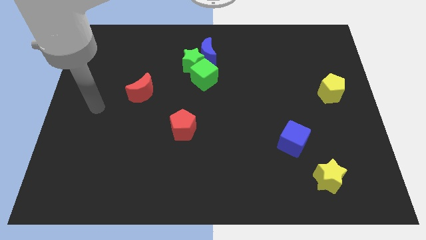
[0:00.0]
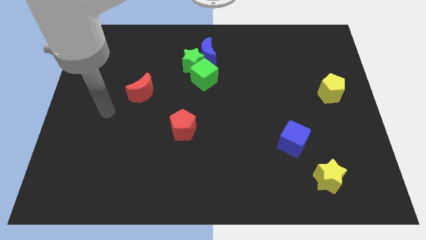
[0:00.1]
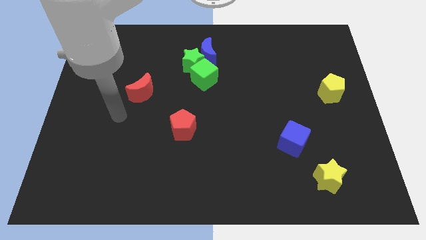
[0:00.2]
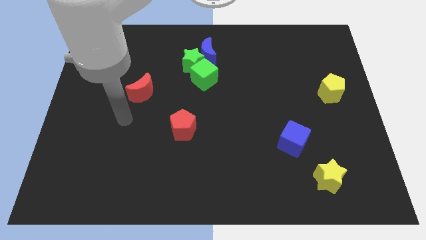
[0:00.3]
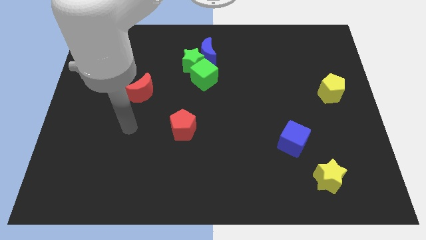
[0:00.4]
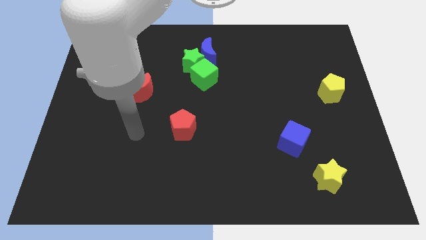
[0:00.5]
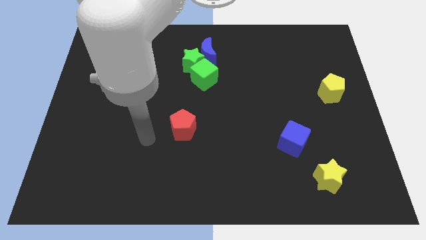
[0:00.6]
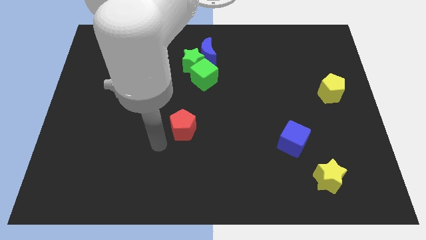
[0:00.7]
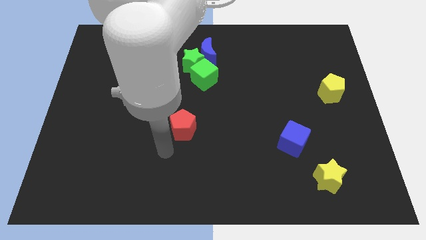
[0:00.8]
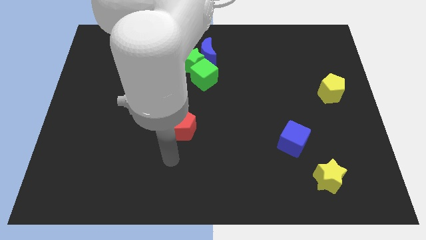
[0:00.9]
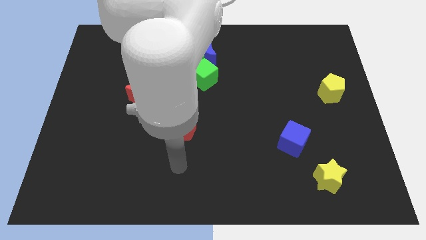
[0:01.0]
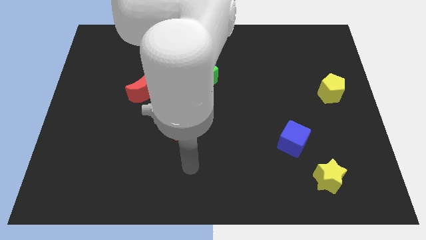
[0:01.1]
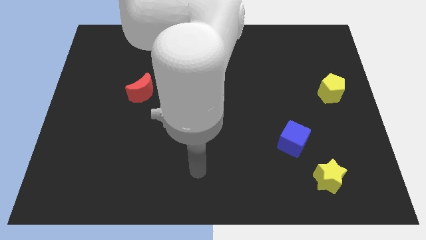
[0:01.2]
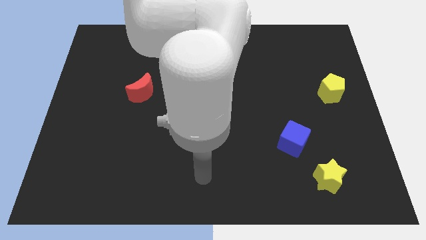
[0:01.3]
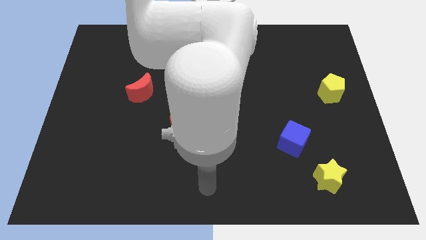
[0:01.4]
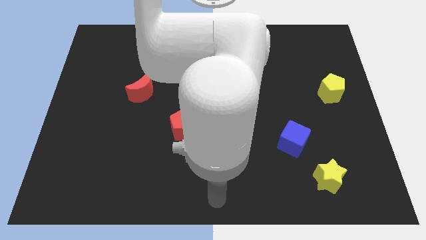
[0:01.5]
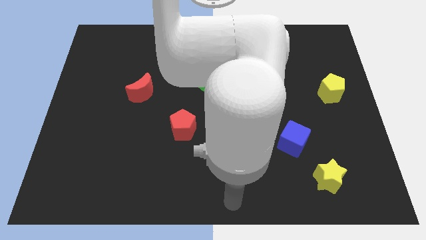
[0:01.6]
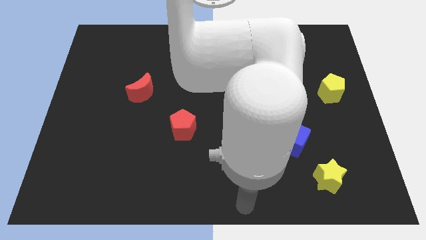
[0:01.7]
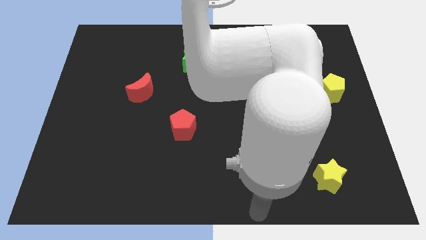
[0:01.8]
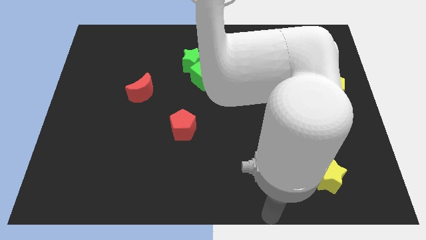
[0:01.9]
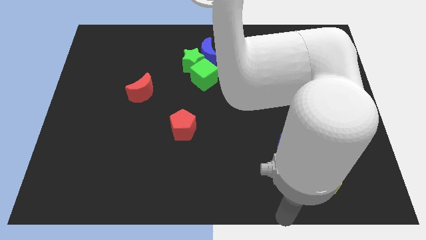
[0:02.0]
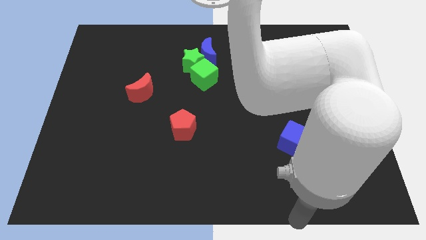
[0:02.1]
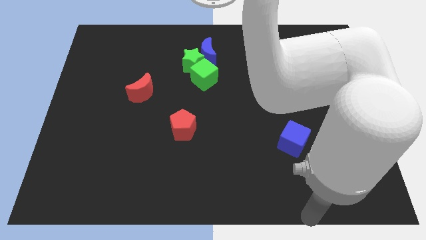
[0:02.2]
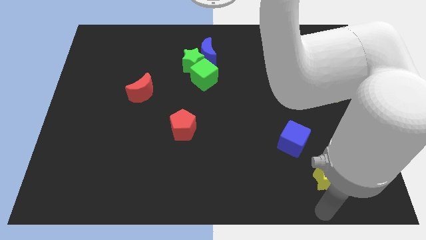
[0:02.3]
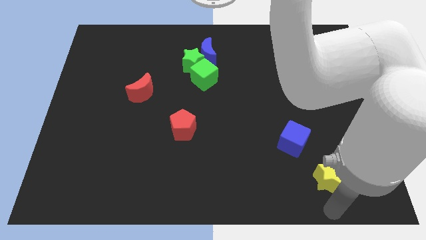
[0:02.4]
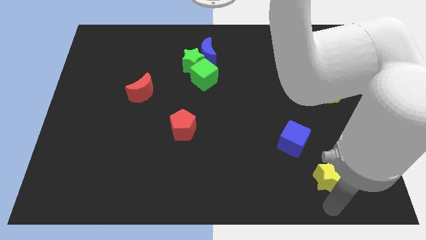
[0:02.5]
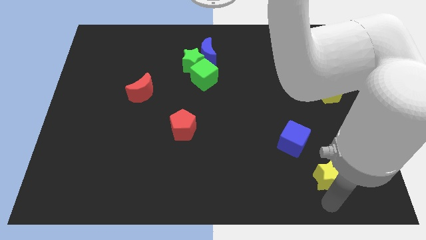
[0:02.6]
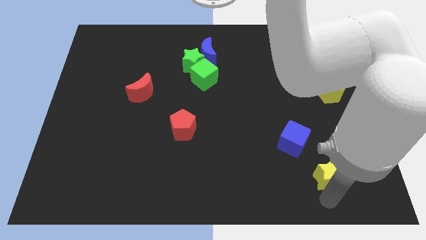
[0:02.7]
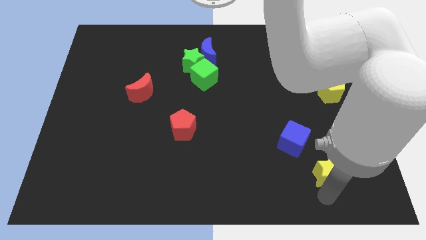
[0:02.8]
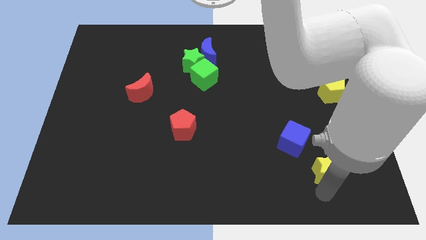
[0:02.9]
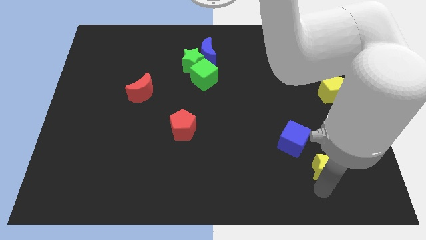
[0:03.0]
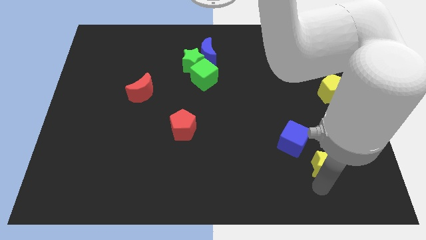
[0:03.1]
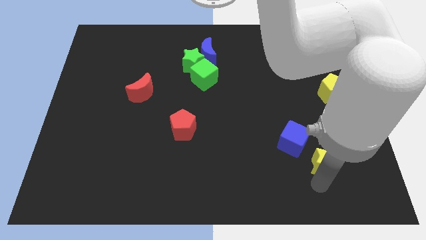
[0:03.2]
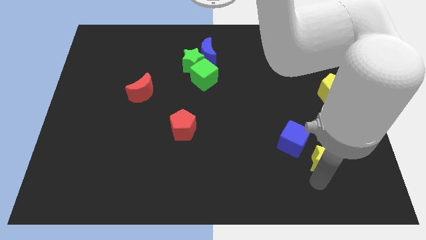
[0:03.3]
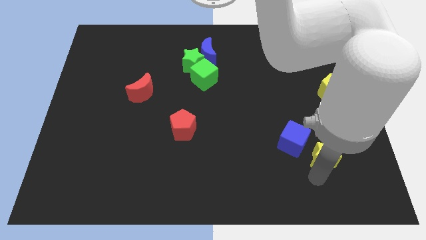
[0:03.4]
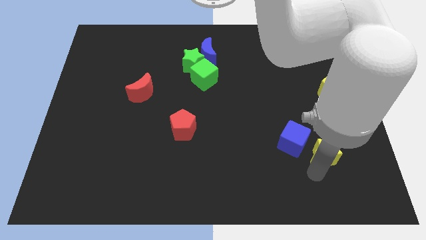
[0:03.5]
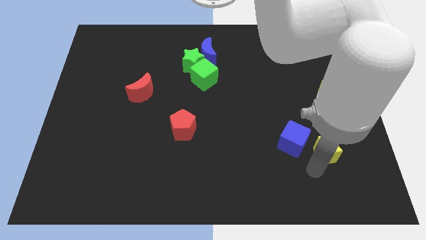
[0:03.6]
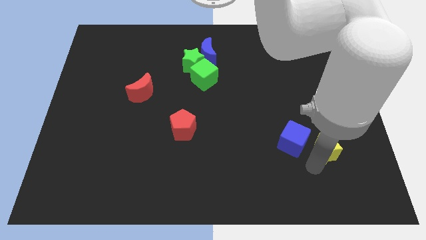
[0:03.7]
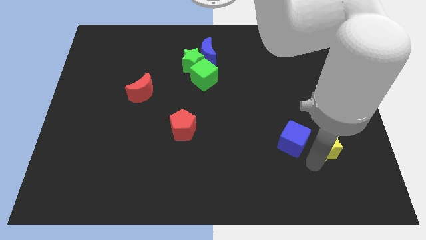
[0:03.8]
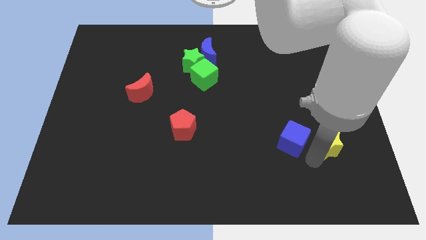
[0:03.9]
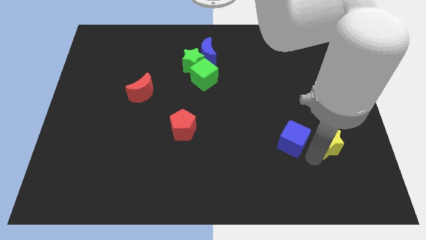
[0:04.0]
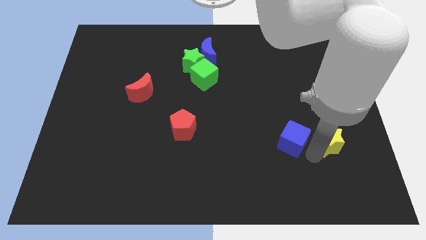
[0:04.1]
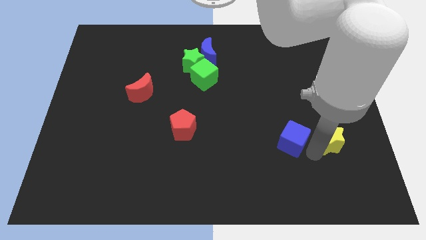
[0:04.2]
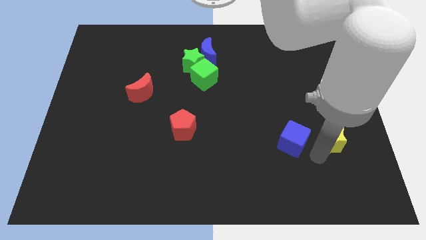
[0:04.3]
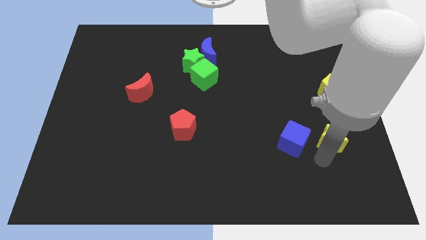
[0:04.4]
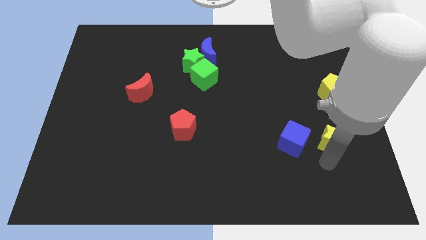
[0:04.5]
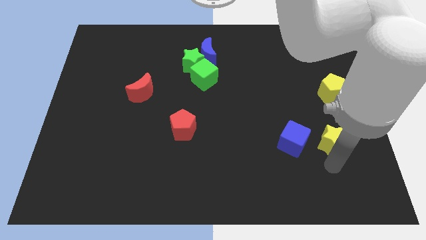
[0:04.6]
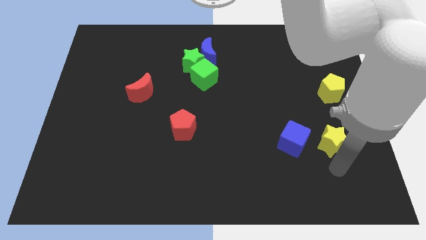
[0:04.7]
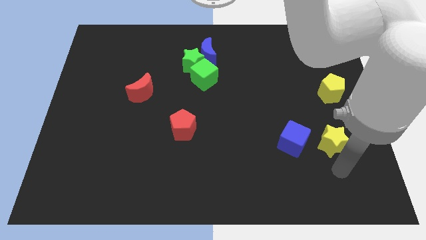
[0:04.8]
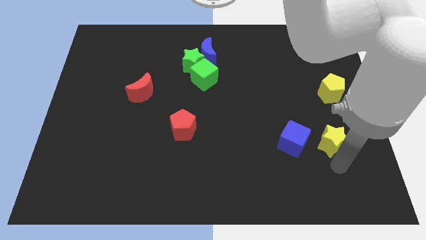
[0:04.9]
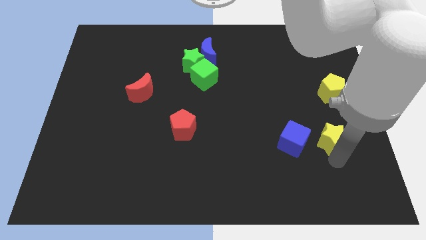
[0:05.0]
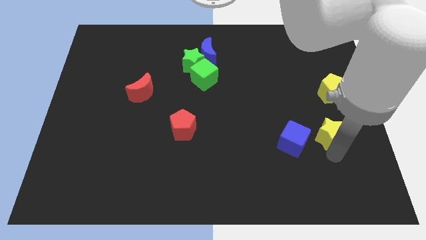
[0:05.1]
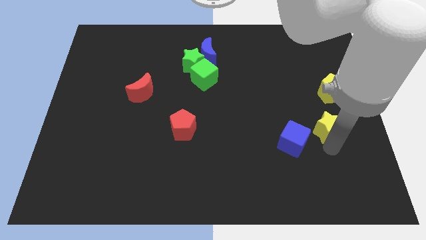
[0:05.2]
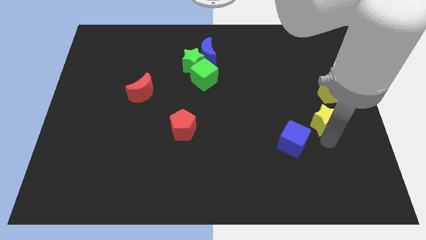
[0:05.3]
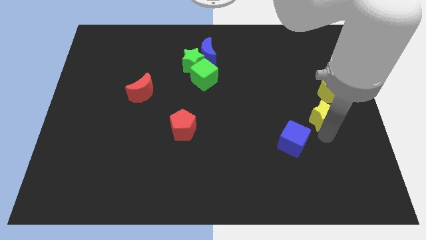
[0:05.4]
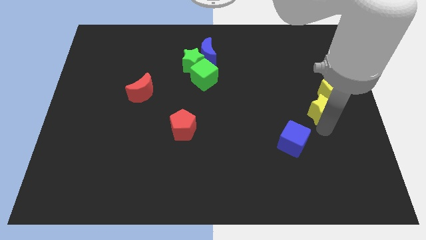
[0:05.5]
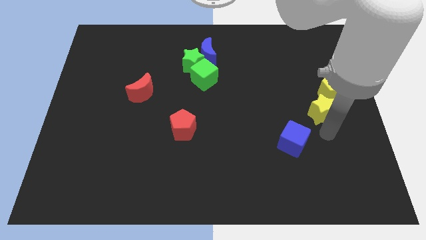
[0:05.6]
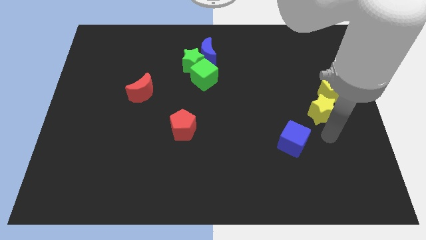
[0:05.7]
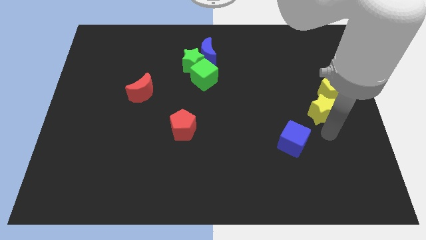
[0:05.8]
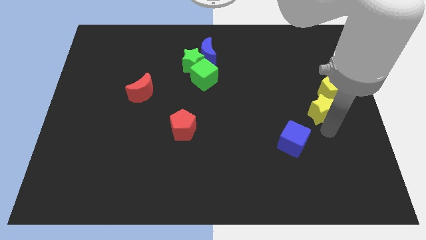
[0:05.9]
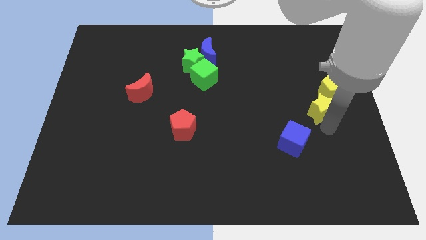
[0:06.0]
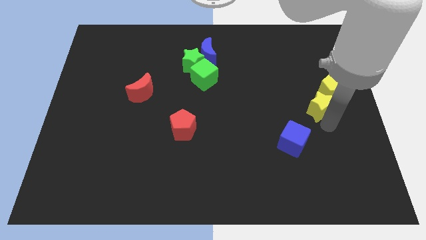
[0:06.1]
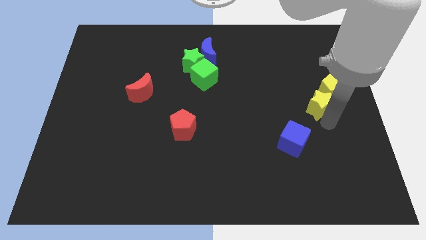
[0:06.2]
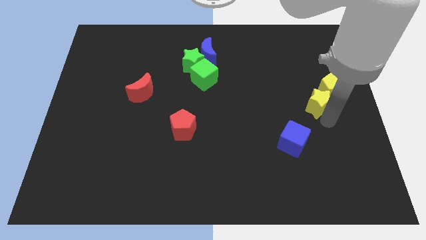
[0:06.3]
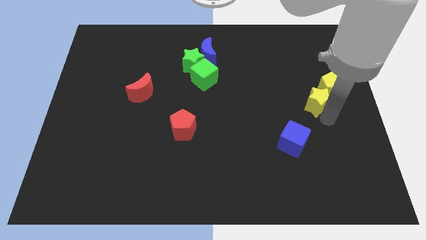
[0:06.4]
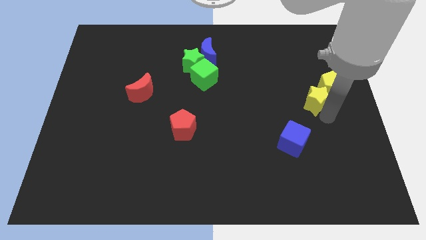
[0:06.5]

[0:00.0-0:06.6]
slide the yellow star upwards

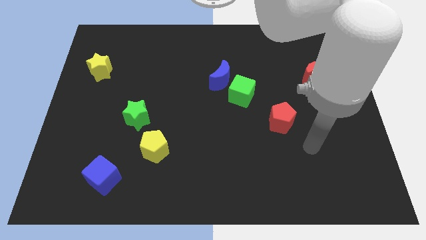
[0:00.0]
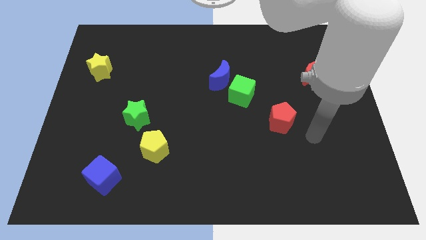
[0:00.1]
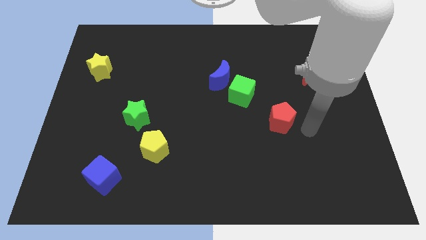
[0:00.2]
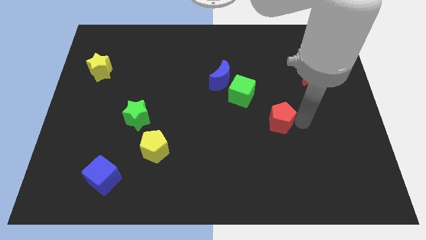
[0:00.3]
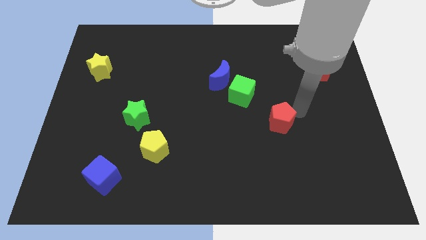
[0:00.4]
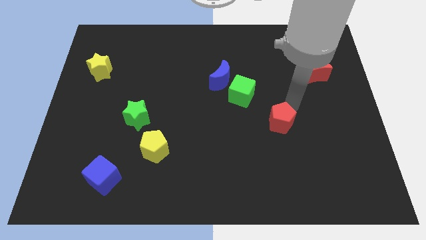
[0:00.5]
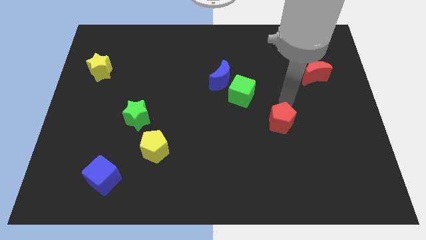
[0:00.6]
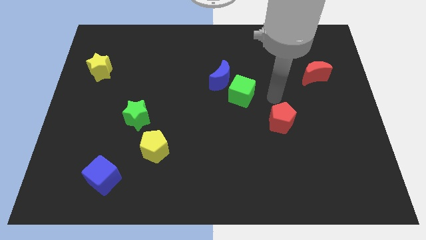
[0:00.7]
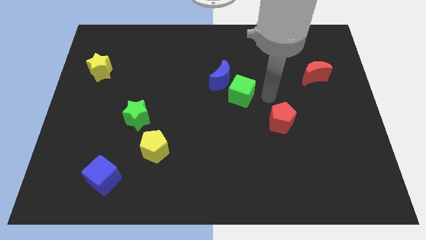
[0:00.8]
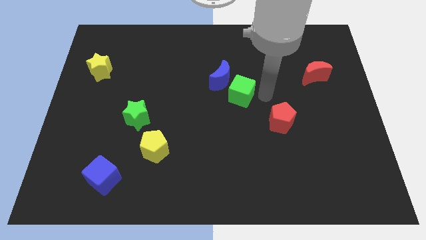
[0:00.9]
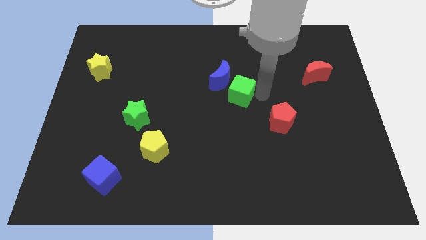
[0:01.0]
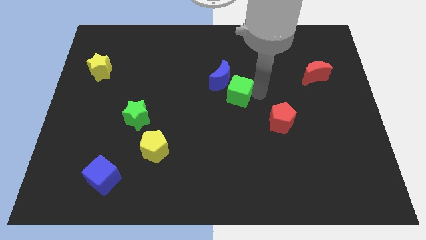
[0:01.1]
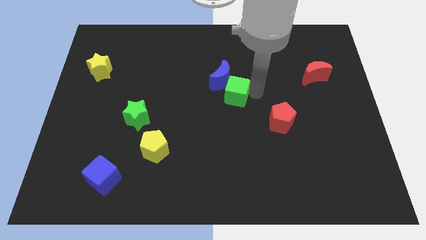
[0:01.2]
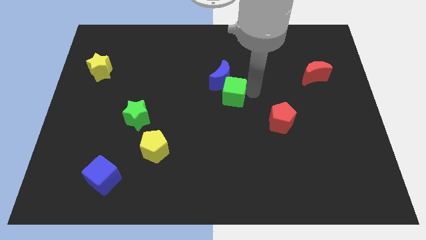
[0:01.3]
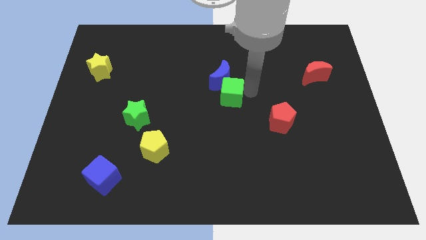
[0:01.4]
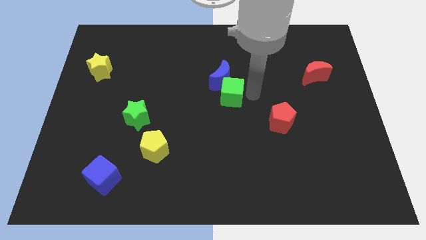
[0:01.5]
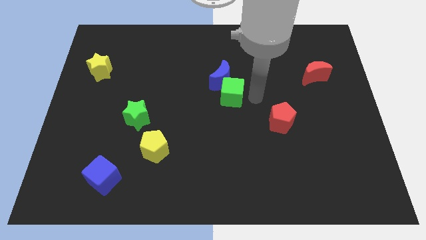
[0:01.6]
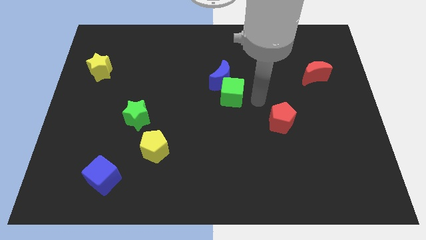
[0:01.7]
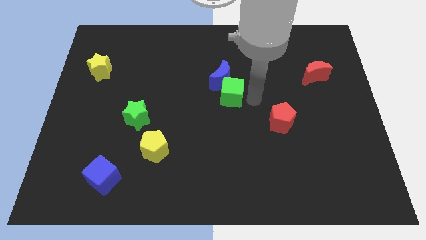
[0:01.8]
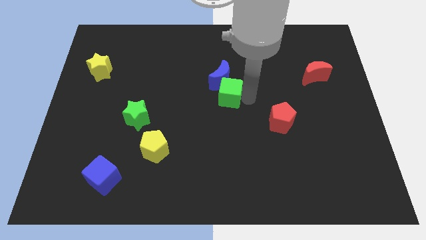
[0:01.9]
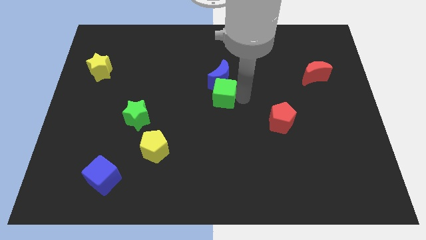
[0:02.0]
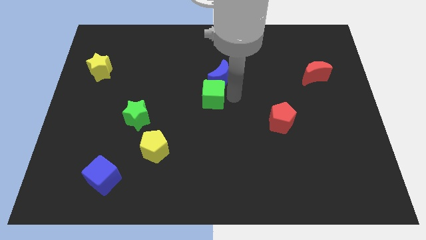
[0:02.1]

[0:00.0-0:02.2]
move the green cube a little to the left
